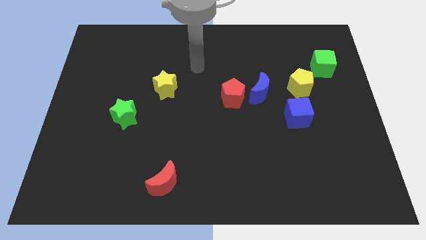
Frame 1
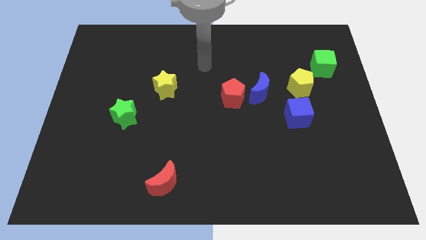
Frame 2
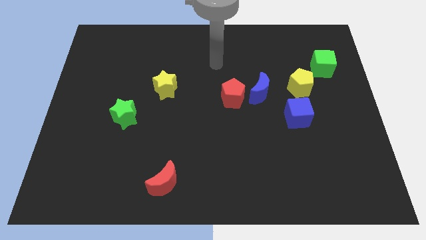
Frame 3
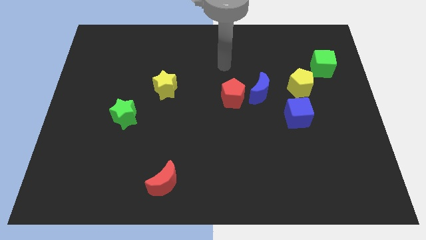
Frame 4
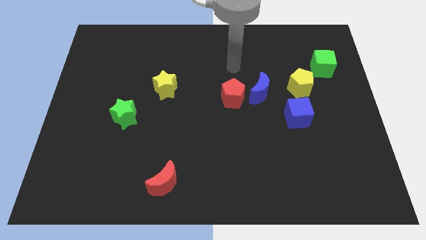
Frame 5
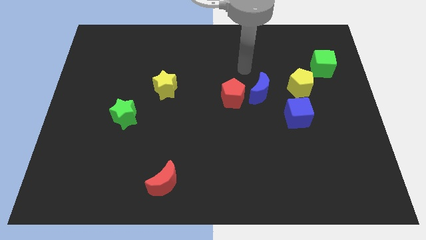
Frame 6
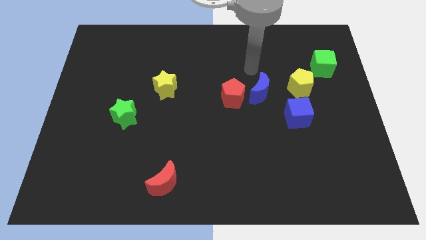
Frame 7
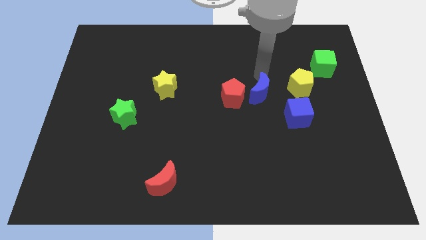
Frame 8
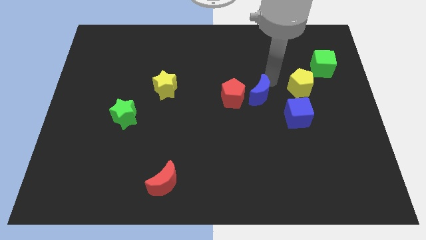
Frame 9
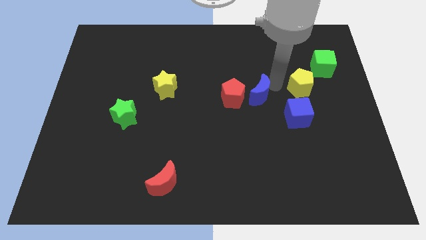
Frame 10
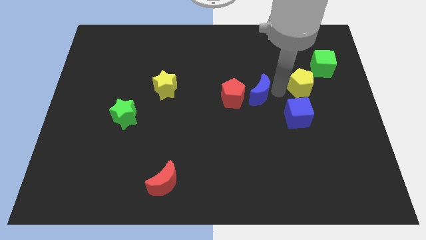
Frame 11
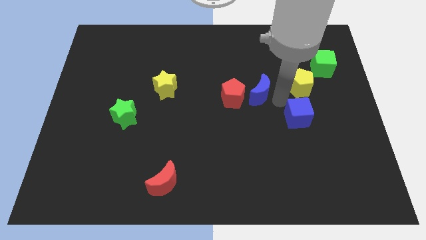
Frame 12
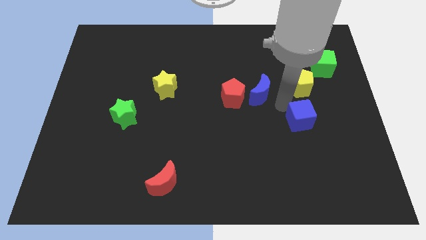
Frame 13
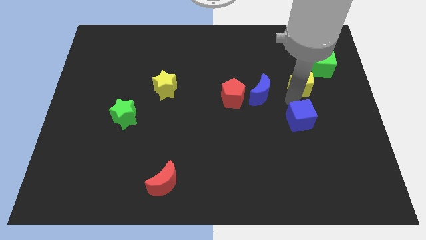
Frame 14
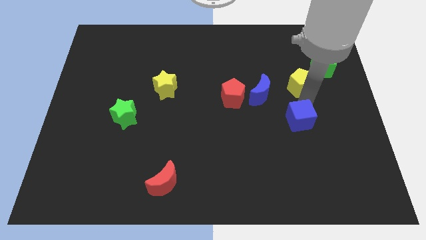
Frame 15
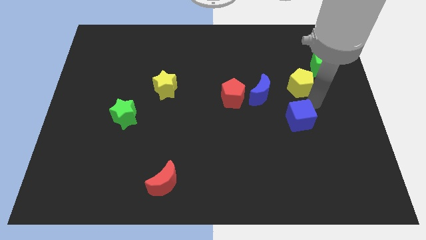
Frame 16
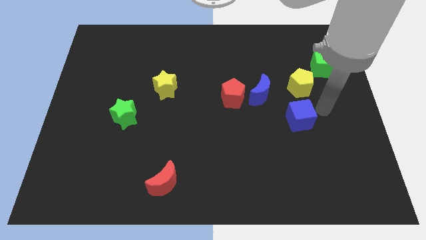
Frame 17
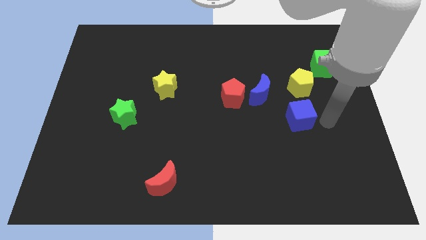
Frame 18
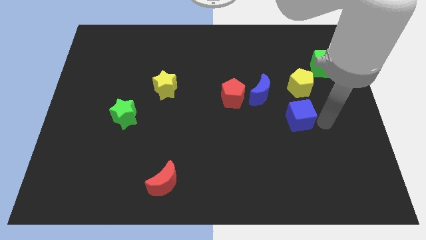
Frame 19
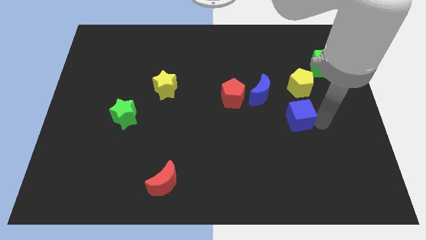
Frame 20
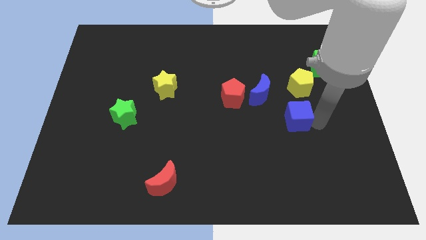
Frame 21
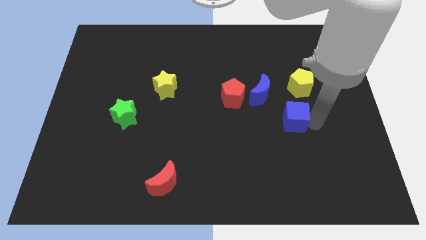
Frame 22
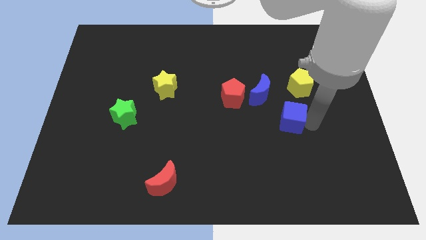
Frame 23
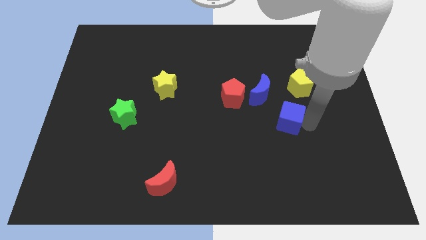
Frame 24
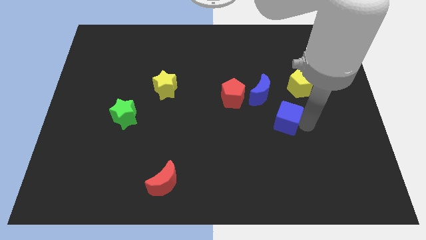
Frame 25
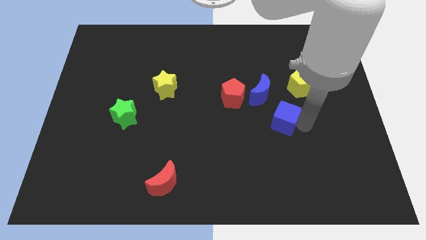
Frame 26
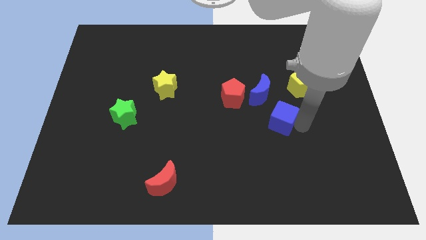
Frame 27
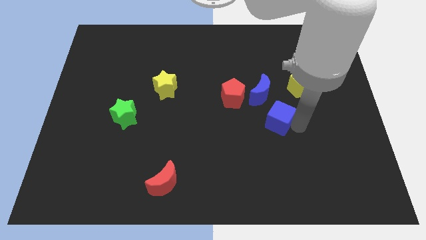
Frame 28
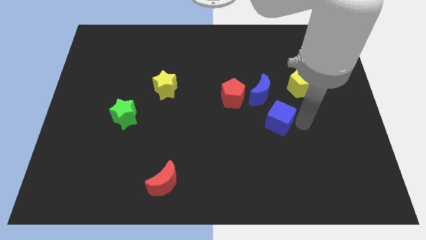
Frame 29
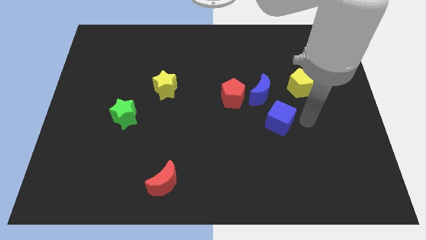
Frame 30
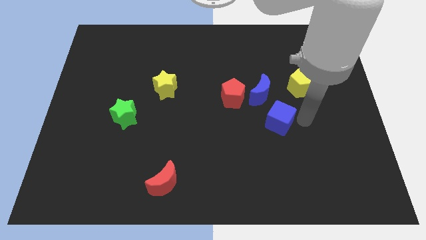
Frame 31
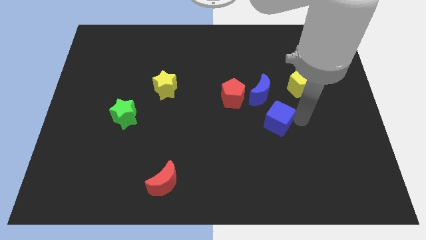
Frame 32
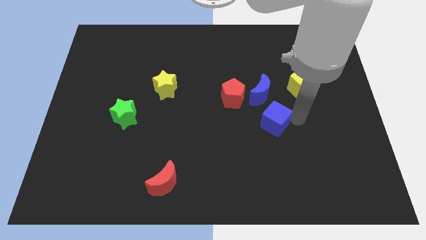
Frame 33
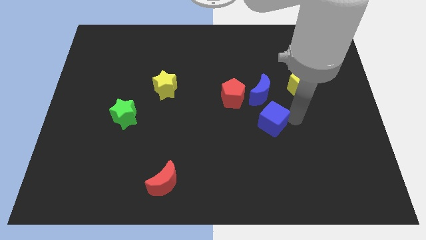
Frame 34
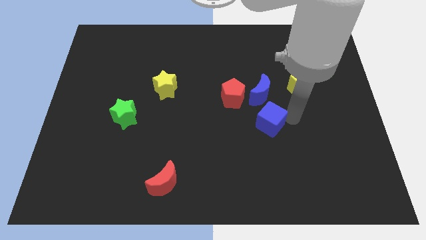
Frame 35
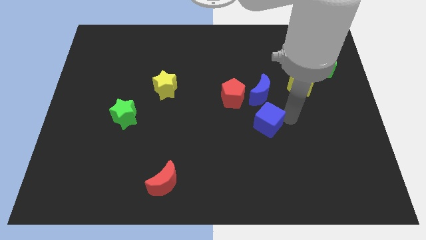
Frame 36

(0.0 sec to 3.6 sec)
slightly push the blue cube left

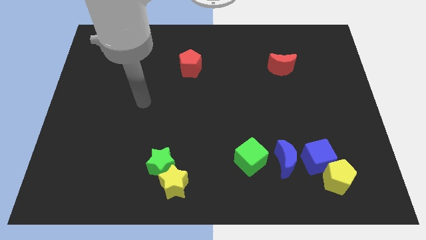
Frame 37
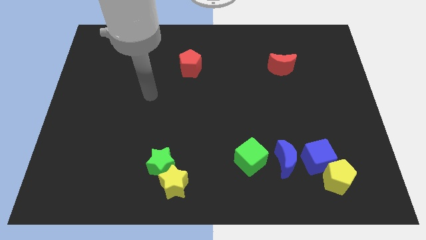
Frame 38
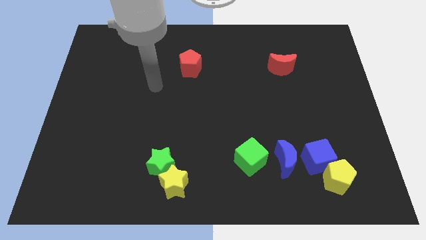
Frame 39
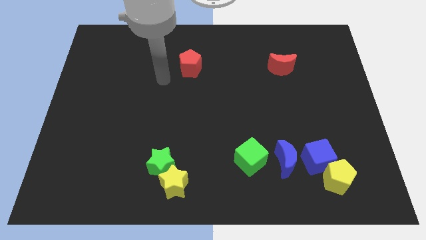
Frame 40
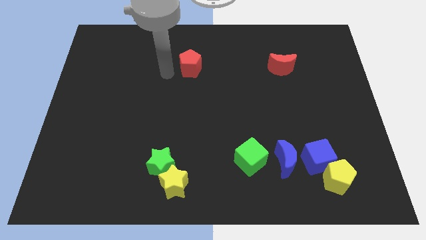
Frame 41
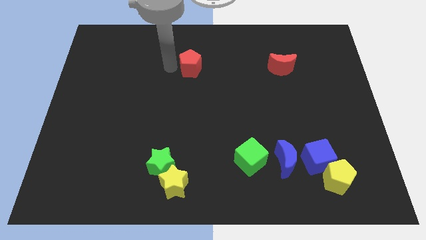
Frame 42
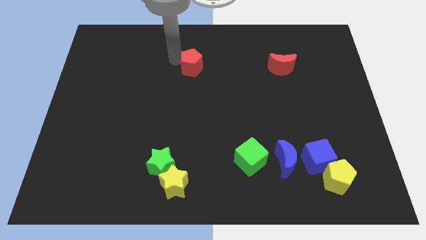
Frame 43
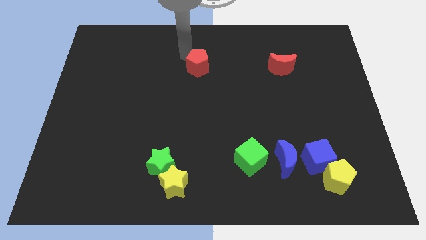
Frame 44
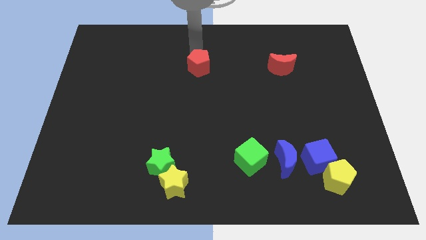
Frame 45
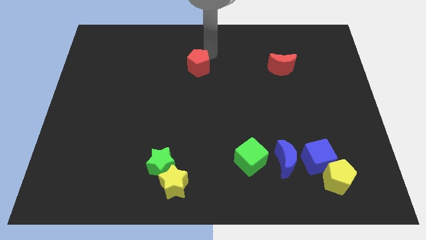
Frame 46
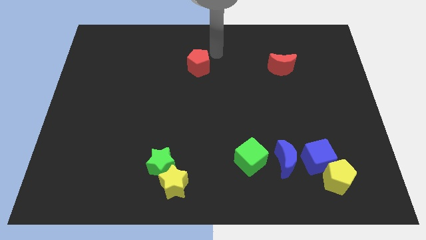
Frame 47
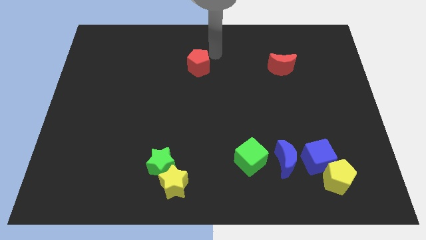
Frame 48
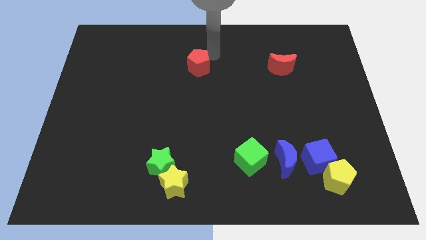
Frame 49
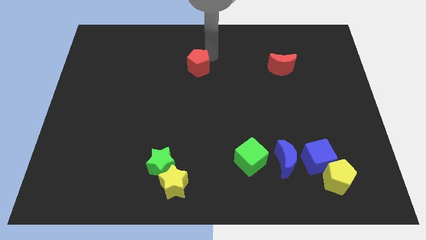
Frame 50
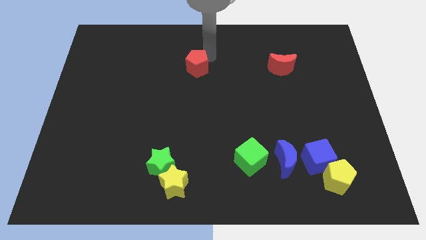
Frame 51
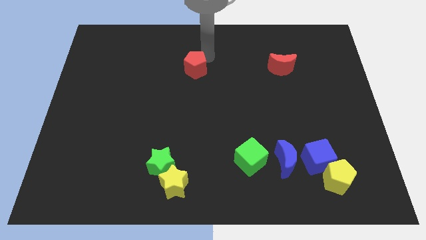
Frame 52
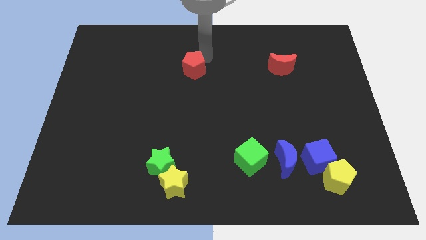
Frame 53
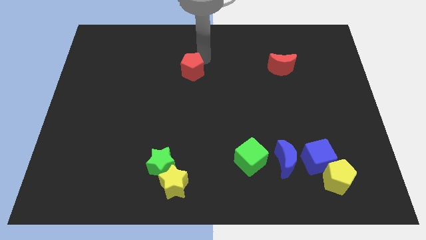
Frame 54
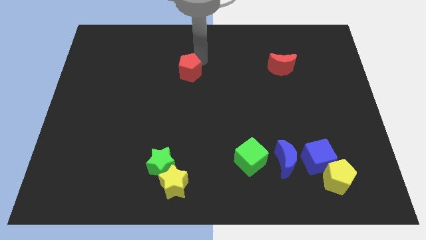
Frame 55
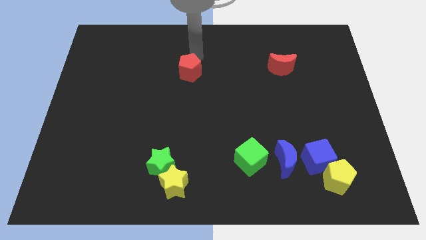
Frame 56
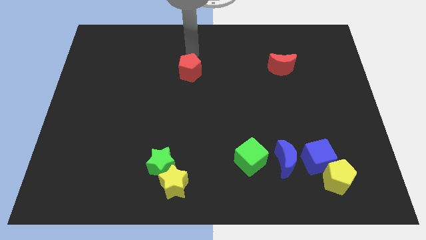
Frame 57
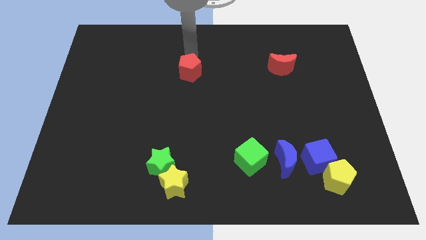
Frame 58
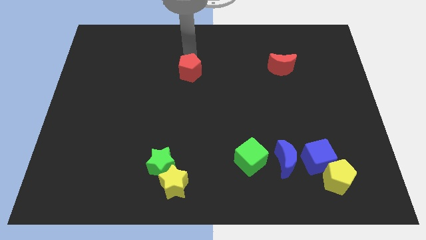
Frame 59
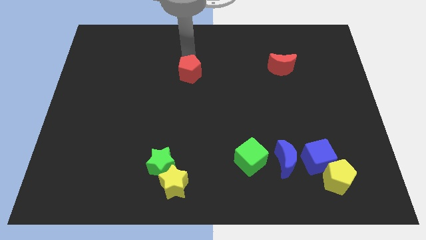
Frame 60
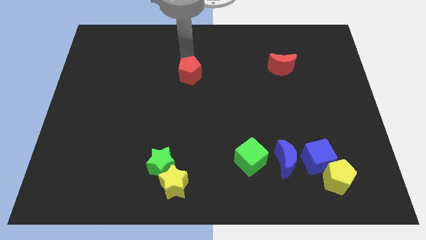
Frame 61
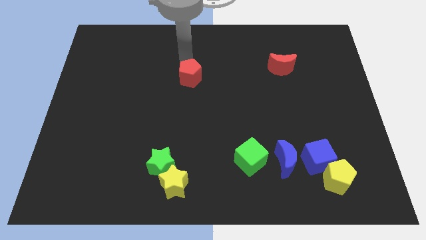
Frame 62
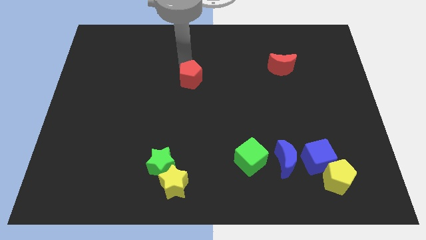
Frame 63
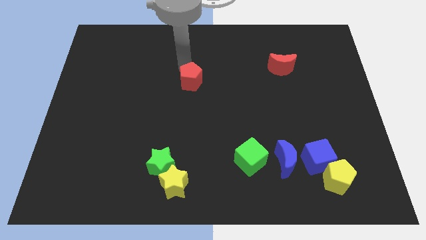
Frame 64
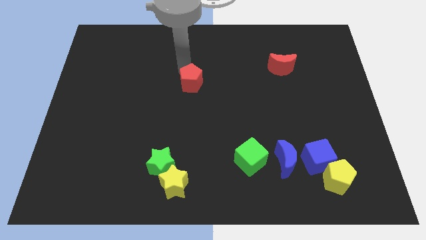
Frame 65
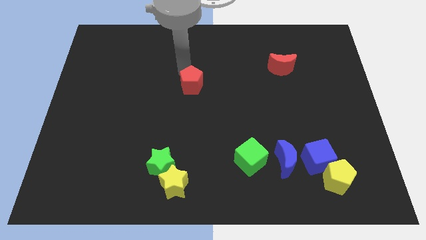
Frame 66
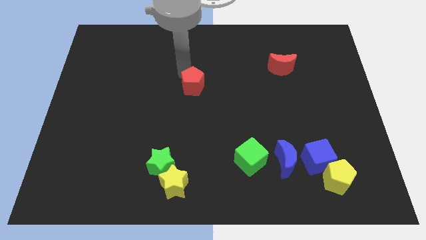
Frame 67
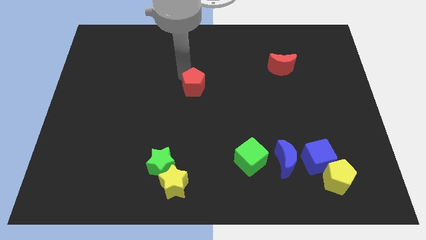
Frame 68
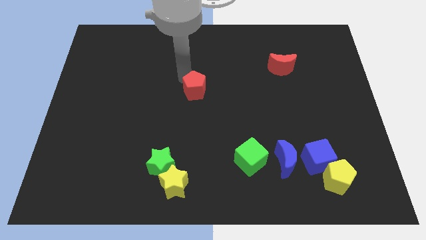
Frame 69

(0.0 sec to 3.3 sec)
slightly slide the red pentagon downwards

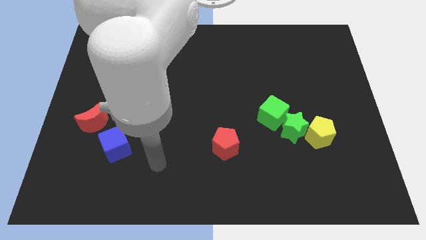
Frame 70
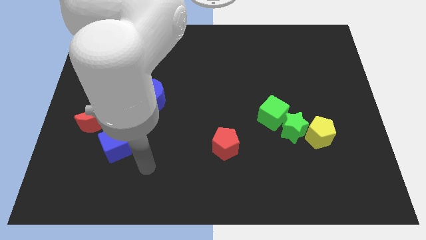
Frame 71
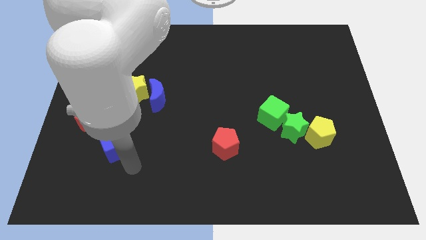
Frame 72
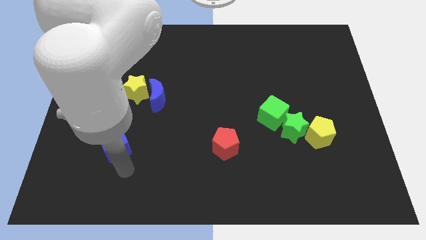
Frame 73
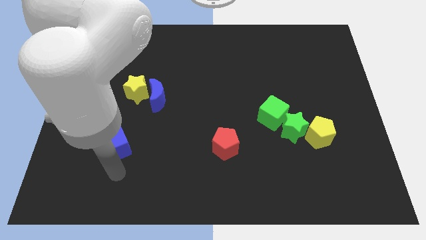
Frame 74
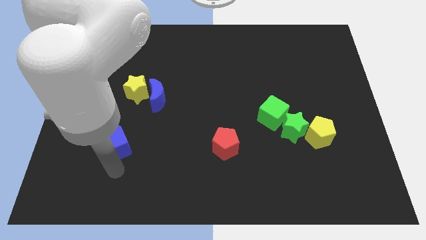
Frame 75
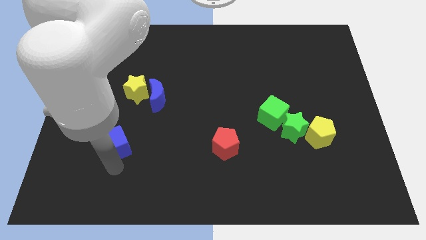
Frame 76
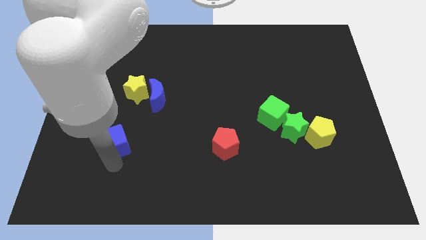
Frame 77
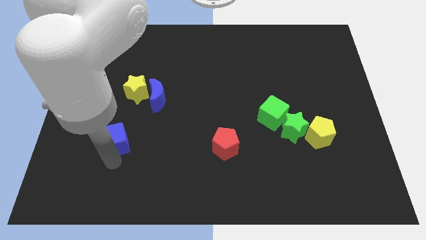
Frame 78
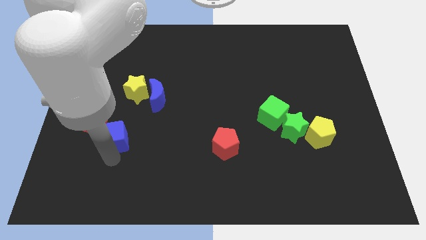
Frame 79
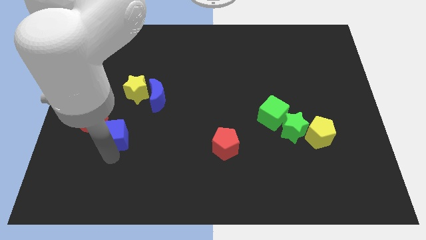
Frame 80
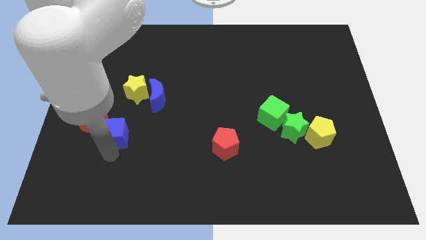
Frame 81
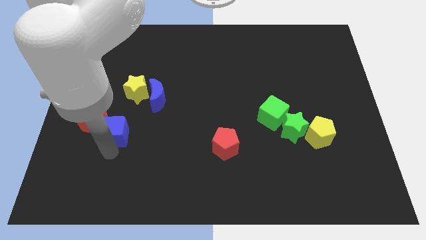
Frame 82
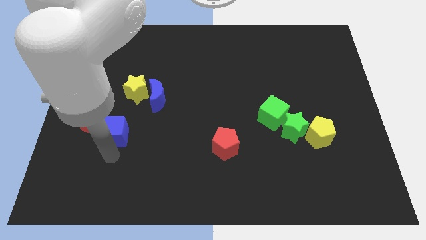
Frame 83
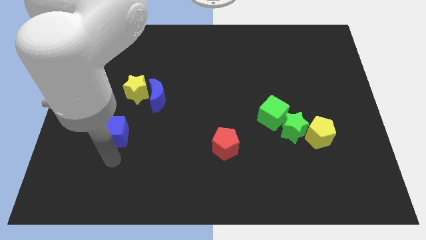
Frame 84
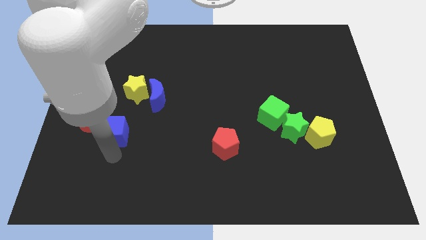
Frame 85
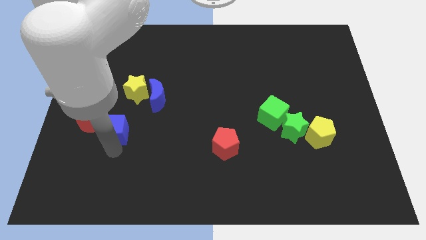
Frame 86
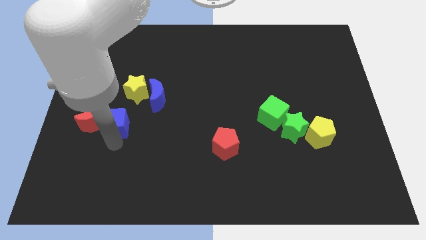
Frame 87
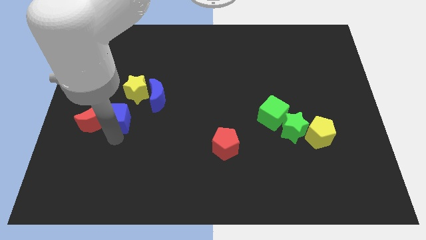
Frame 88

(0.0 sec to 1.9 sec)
slide the blue cube up slightly
